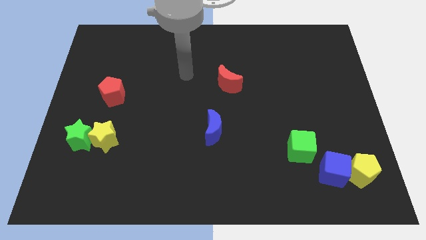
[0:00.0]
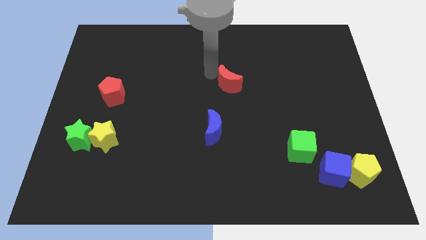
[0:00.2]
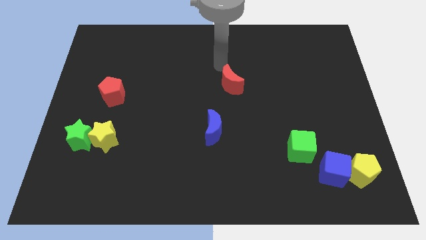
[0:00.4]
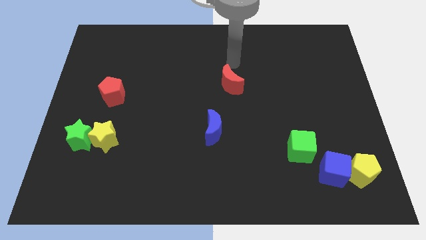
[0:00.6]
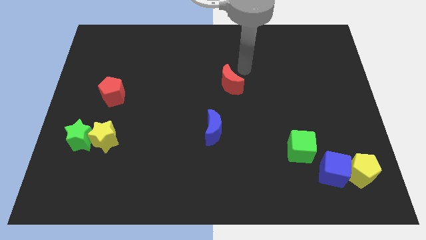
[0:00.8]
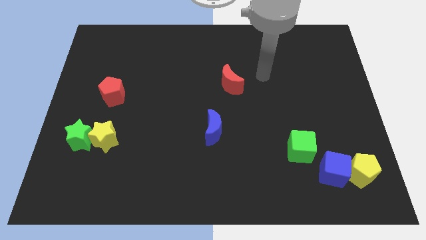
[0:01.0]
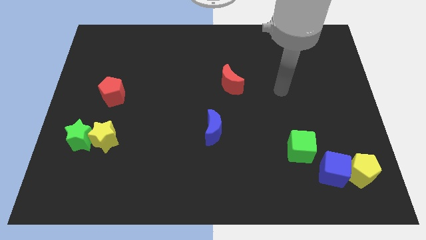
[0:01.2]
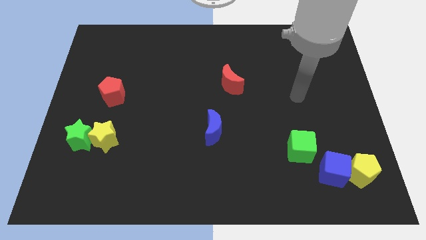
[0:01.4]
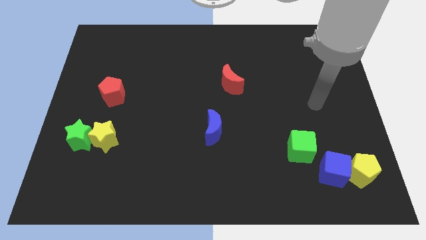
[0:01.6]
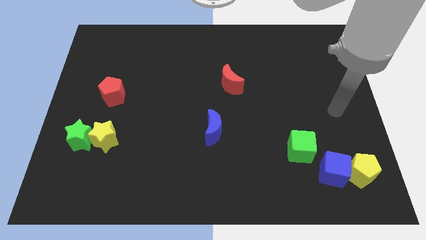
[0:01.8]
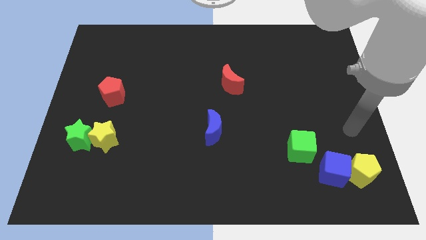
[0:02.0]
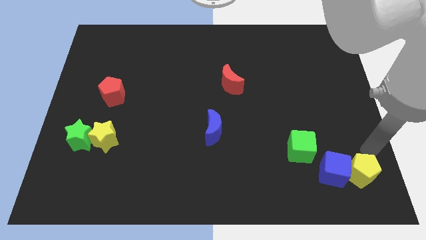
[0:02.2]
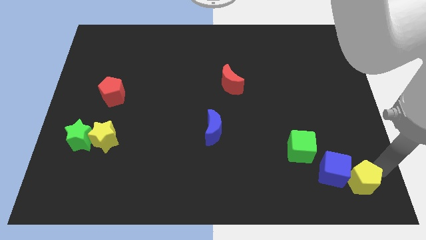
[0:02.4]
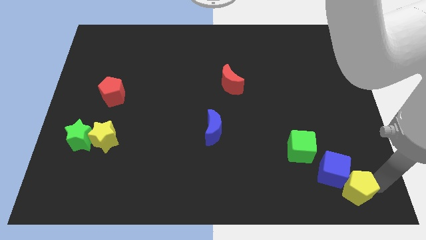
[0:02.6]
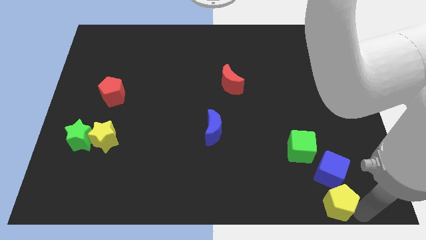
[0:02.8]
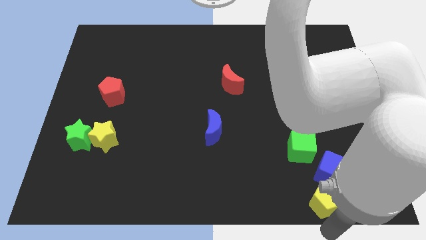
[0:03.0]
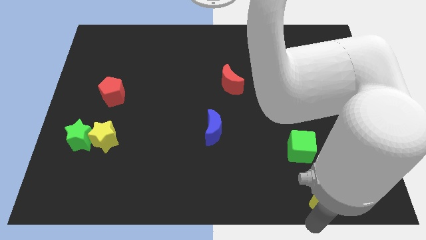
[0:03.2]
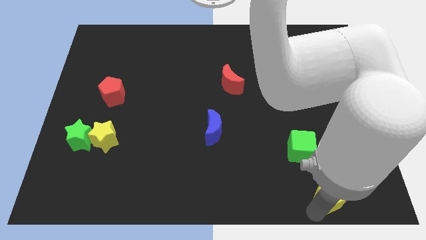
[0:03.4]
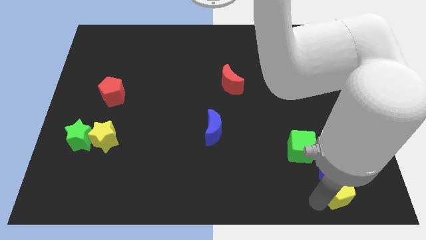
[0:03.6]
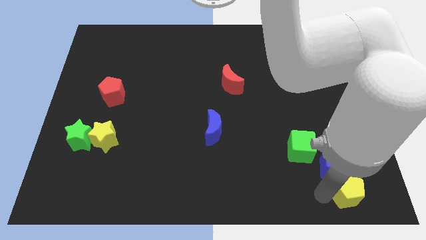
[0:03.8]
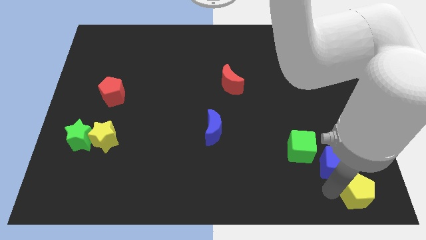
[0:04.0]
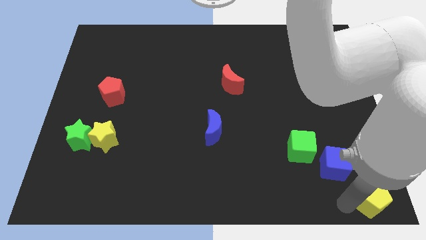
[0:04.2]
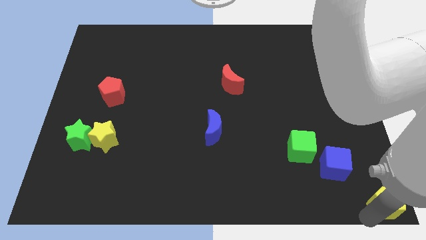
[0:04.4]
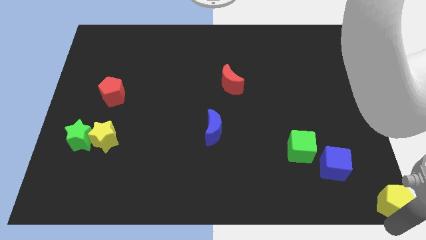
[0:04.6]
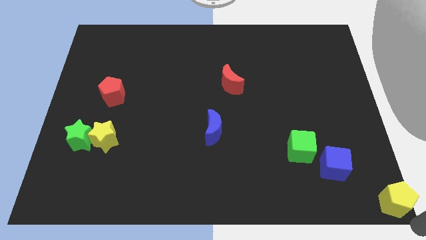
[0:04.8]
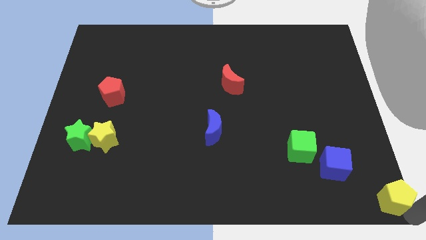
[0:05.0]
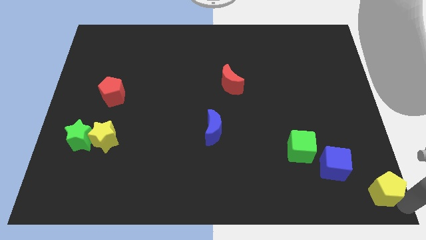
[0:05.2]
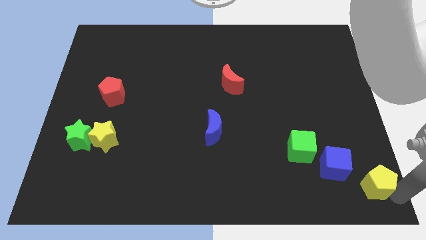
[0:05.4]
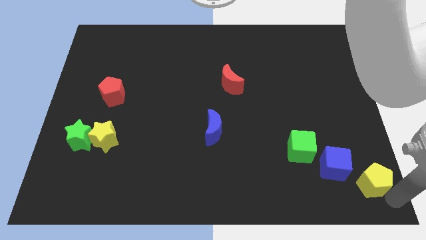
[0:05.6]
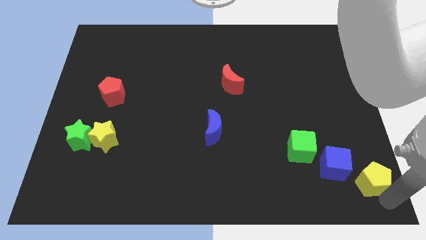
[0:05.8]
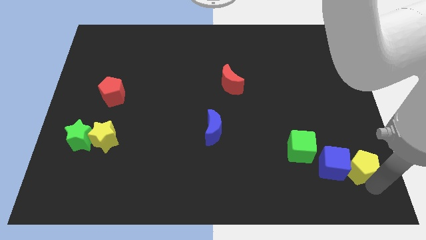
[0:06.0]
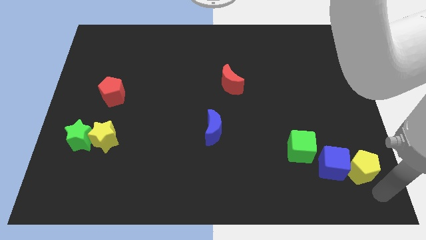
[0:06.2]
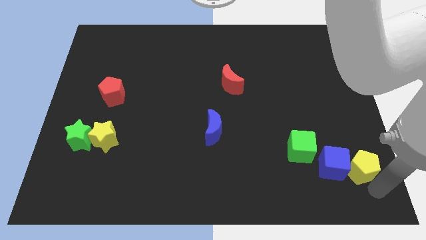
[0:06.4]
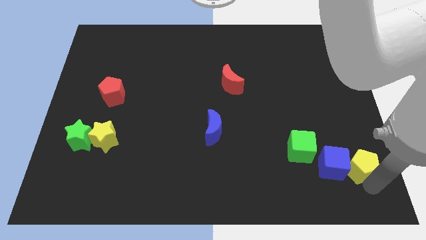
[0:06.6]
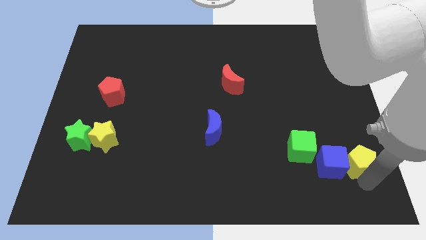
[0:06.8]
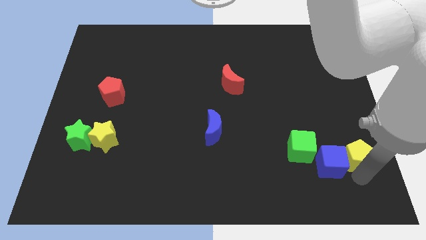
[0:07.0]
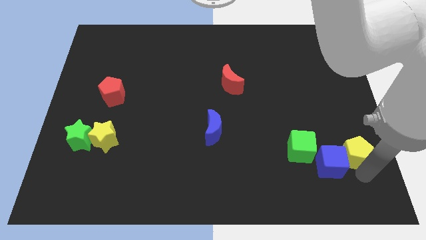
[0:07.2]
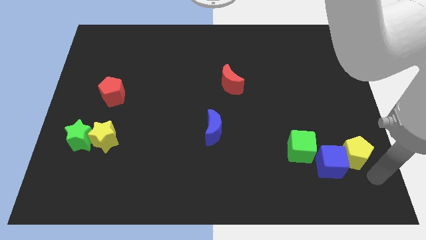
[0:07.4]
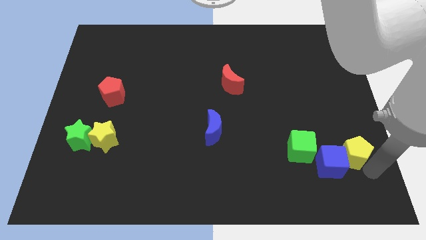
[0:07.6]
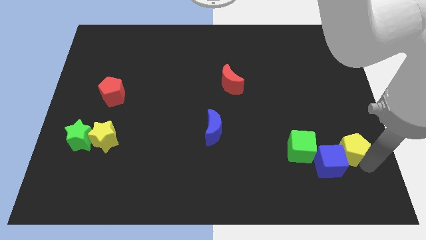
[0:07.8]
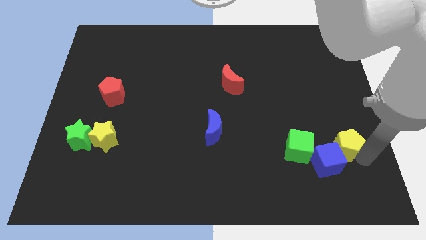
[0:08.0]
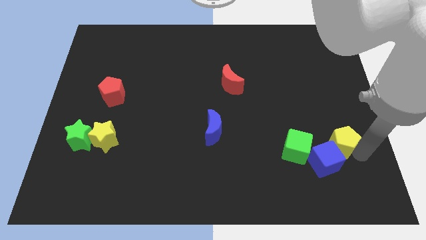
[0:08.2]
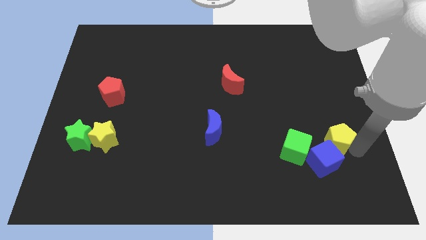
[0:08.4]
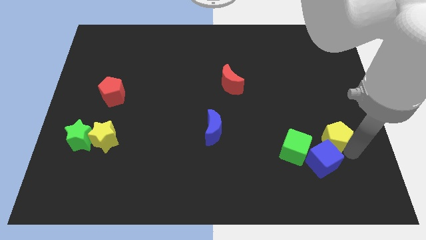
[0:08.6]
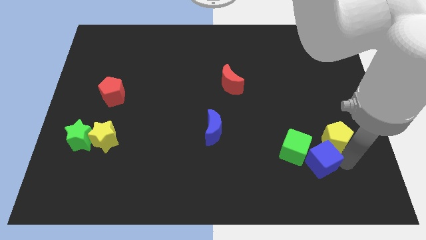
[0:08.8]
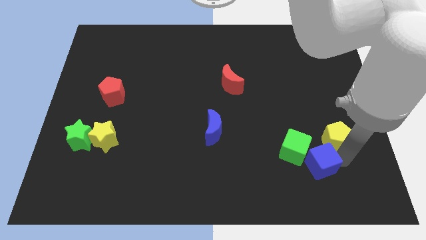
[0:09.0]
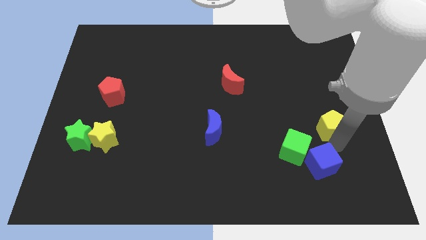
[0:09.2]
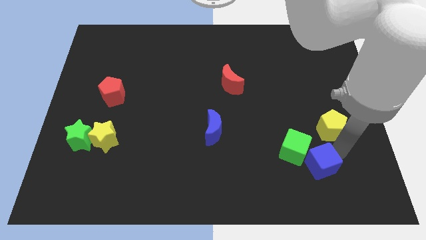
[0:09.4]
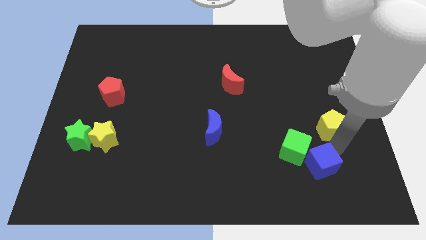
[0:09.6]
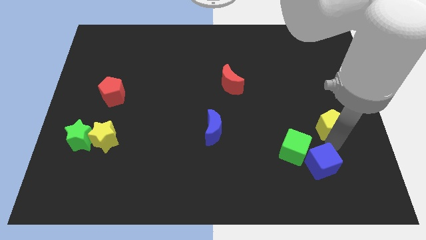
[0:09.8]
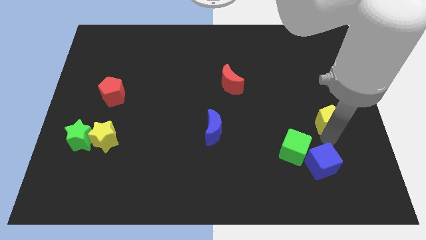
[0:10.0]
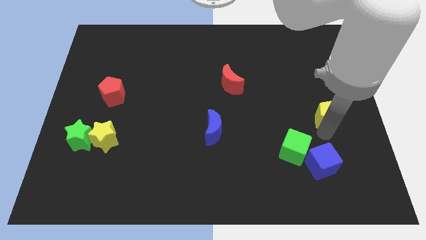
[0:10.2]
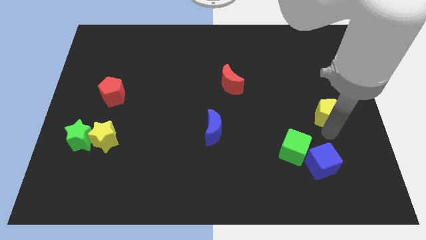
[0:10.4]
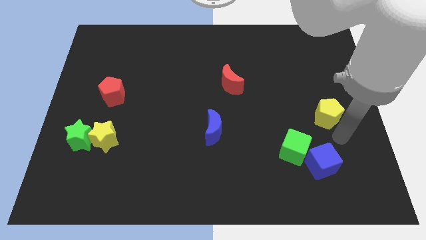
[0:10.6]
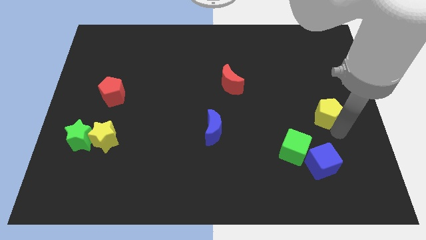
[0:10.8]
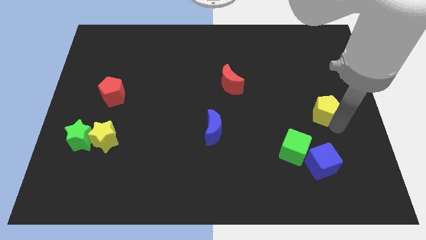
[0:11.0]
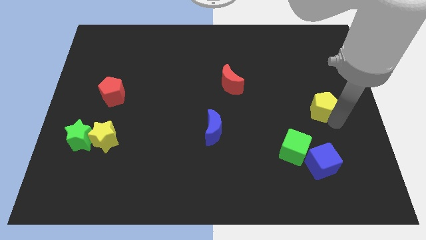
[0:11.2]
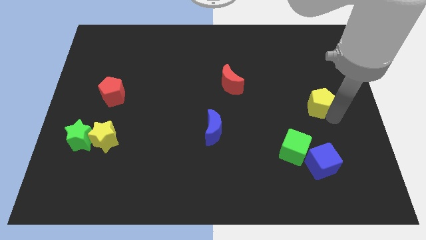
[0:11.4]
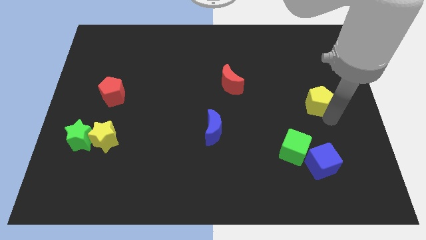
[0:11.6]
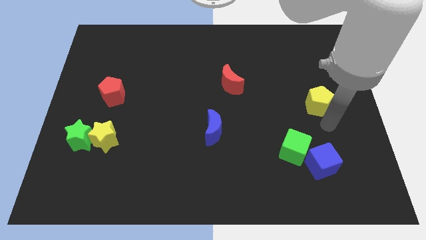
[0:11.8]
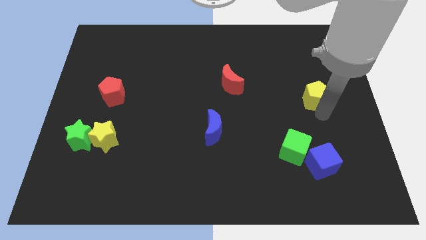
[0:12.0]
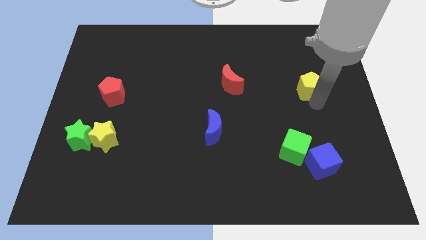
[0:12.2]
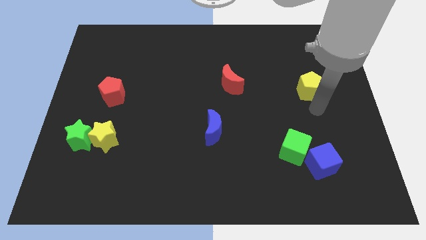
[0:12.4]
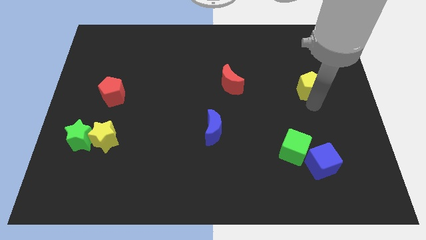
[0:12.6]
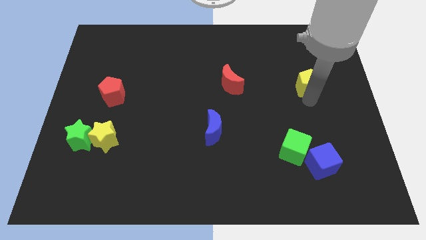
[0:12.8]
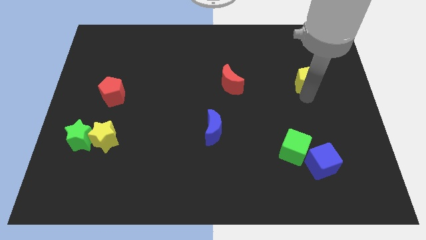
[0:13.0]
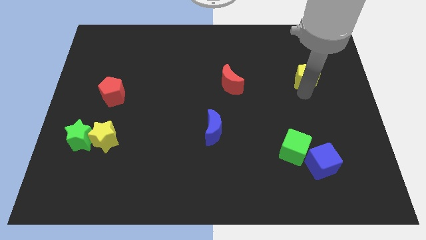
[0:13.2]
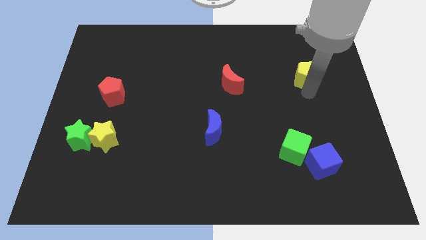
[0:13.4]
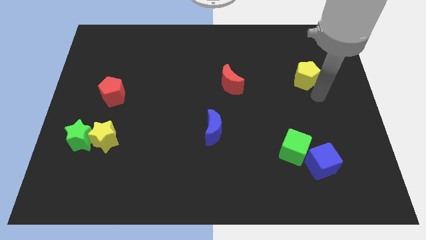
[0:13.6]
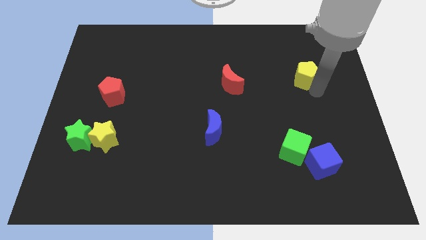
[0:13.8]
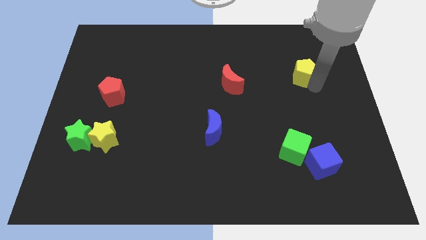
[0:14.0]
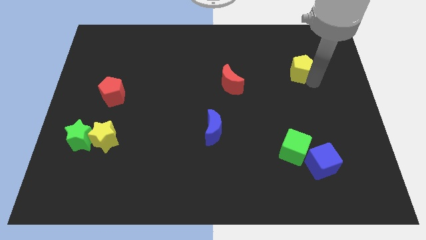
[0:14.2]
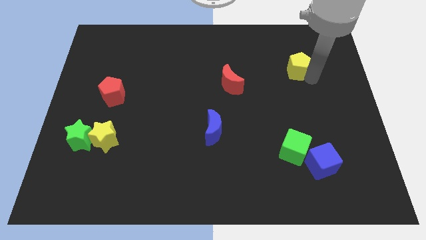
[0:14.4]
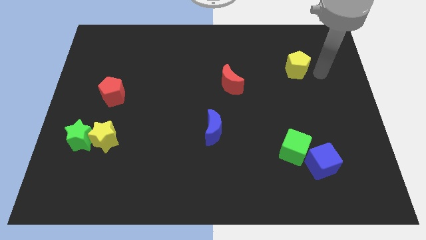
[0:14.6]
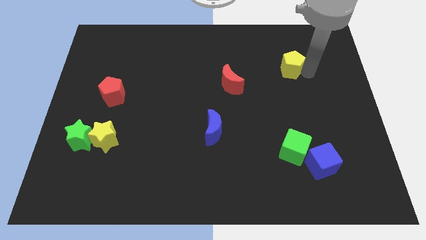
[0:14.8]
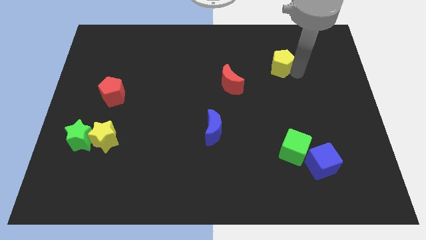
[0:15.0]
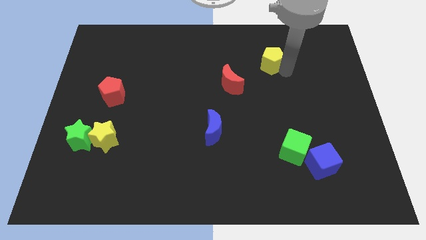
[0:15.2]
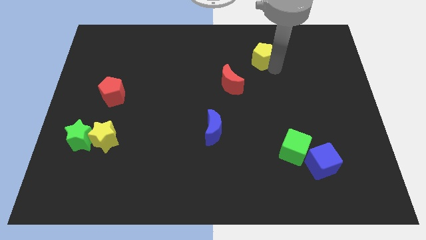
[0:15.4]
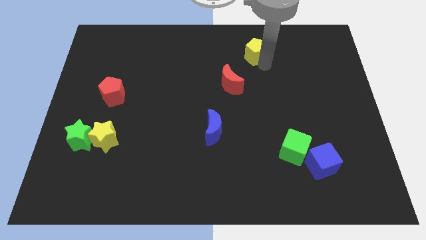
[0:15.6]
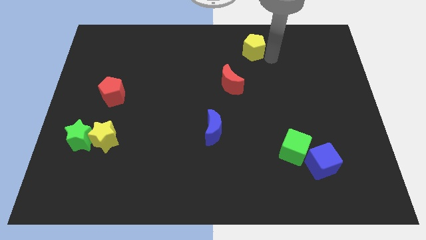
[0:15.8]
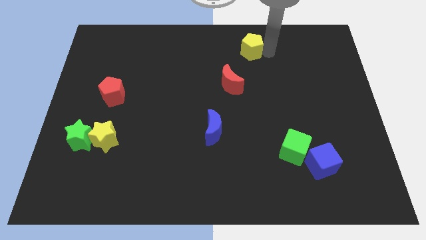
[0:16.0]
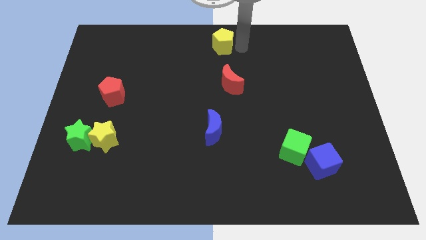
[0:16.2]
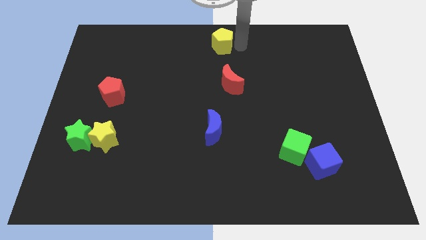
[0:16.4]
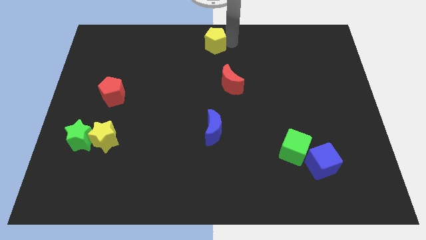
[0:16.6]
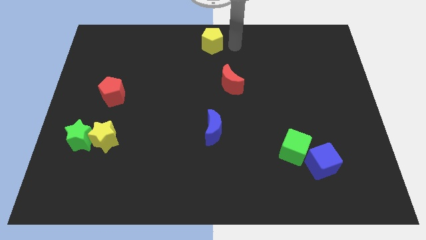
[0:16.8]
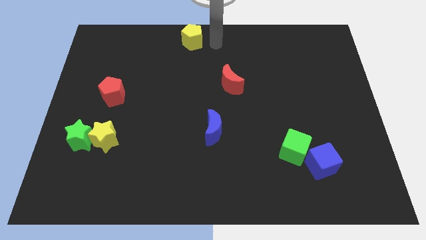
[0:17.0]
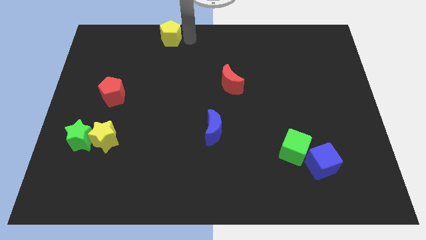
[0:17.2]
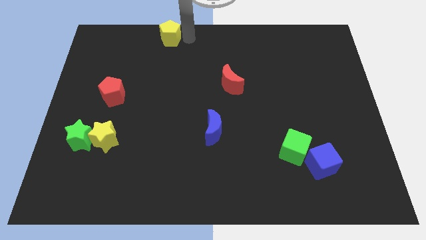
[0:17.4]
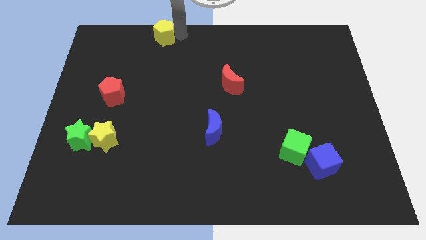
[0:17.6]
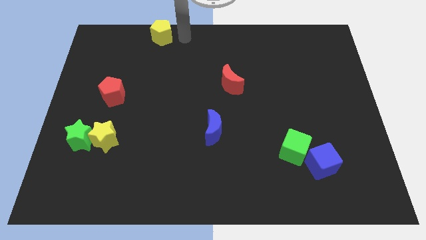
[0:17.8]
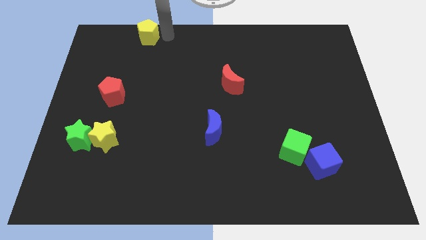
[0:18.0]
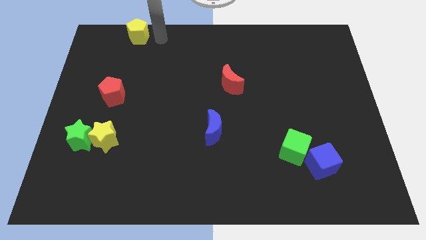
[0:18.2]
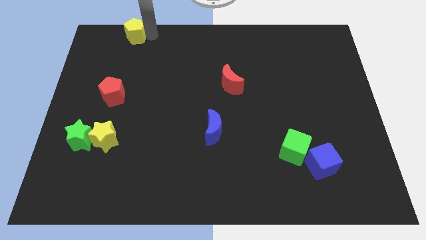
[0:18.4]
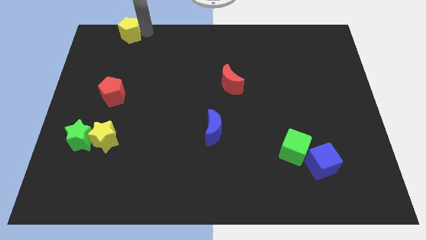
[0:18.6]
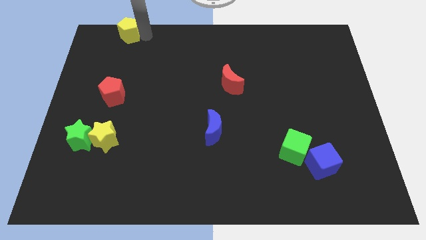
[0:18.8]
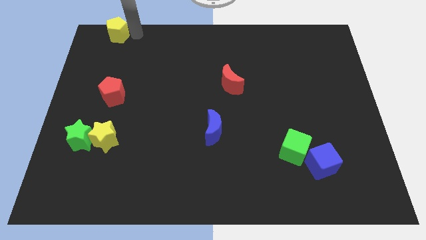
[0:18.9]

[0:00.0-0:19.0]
move the yellow pentagon to the top left
